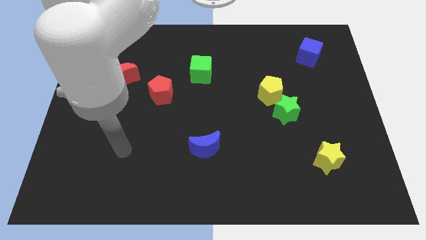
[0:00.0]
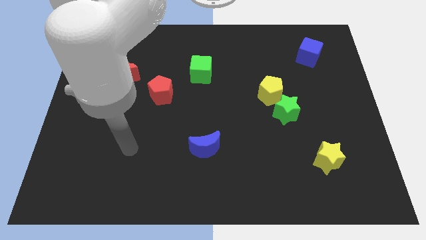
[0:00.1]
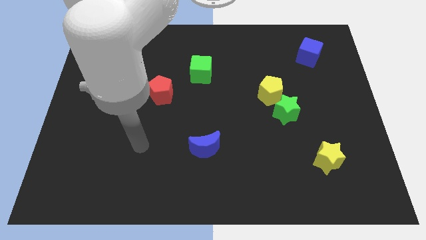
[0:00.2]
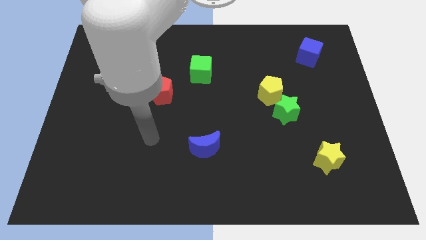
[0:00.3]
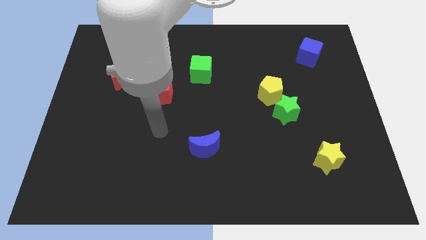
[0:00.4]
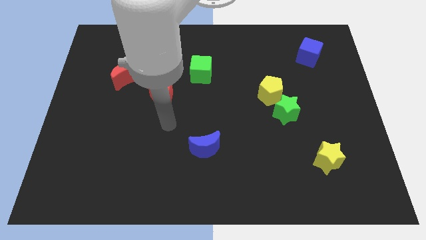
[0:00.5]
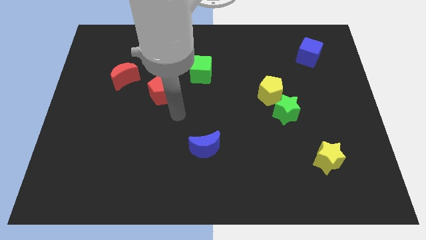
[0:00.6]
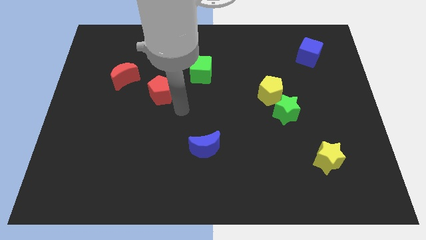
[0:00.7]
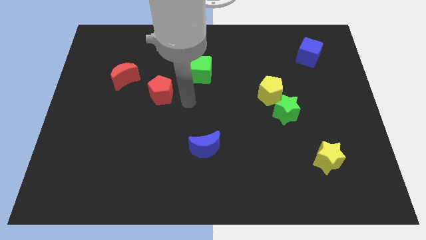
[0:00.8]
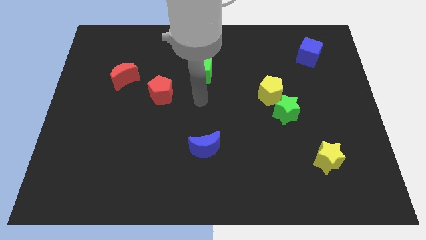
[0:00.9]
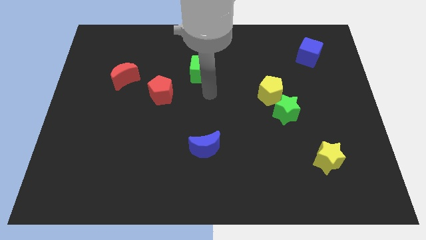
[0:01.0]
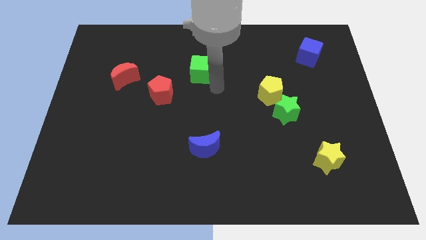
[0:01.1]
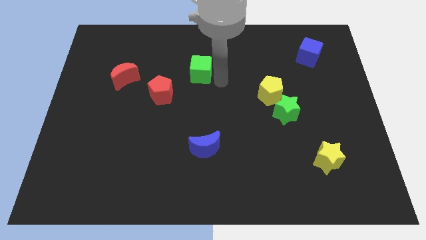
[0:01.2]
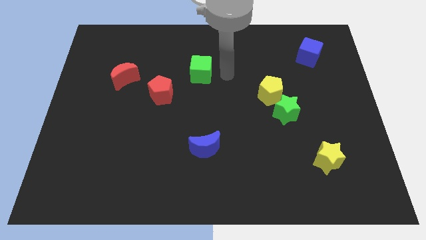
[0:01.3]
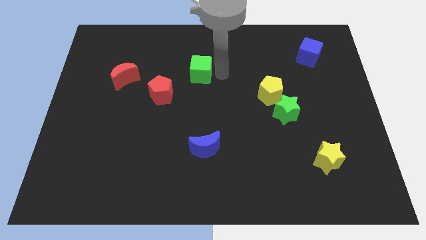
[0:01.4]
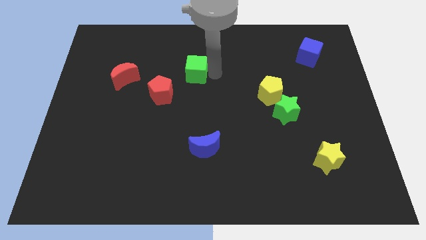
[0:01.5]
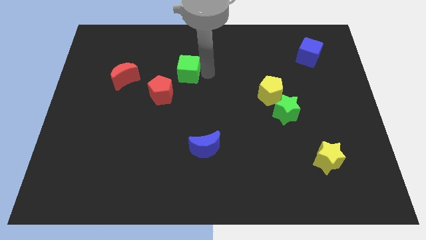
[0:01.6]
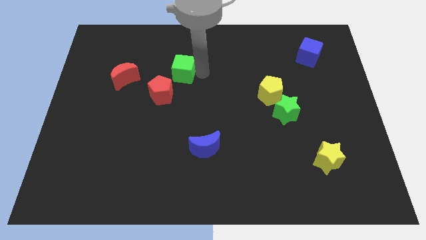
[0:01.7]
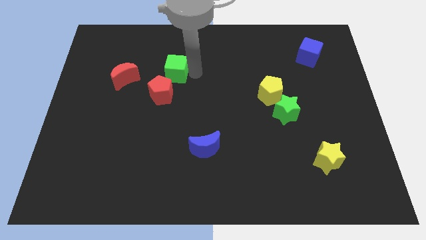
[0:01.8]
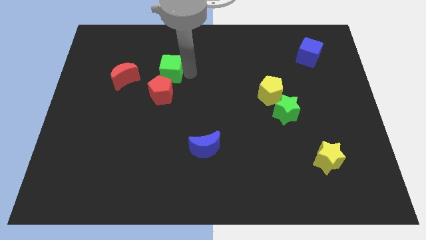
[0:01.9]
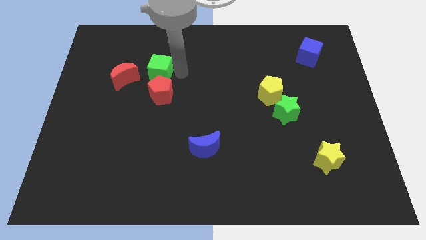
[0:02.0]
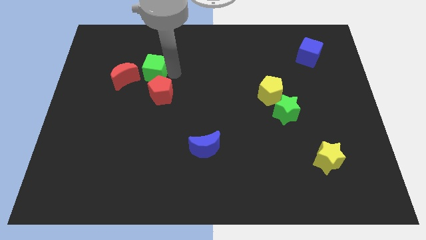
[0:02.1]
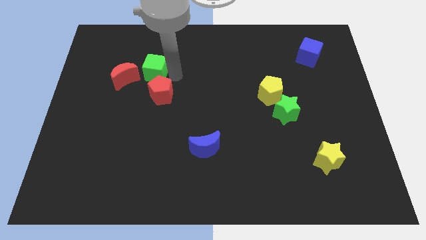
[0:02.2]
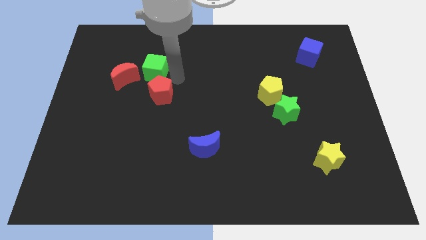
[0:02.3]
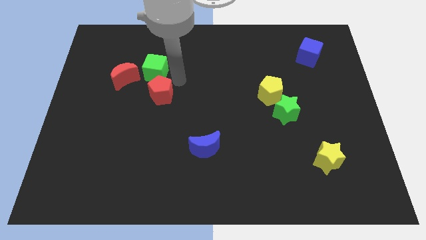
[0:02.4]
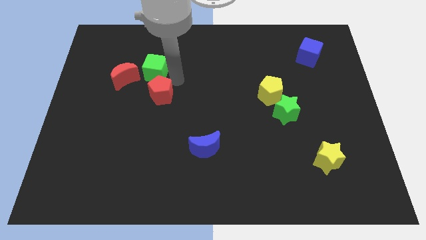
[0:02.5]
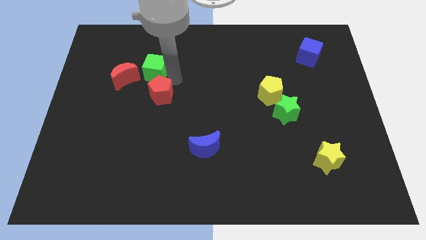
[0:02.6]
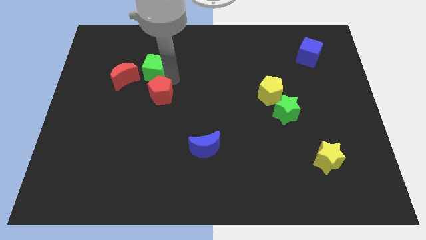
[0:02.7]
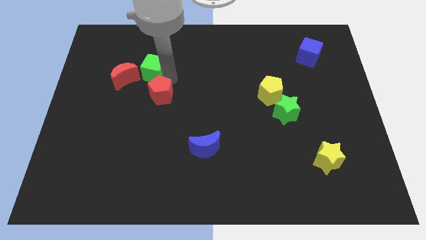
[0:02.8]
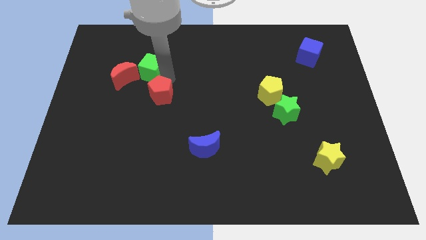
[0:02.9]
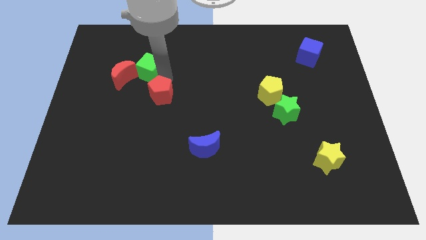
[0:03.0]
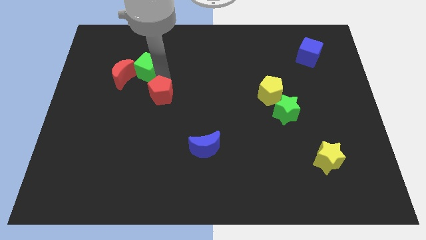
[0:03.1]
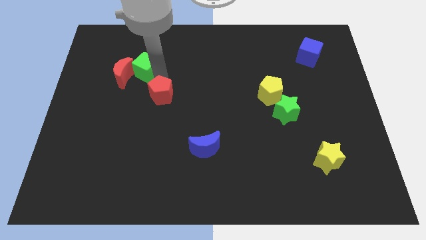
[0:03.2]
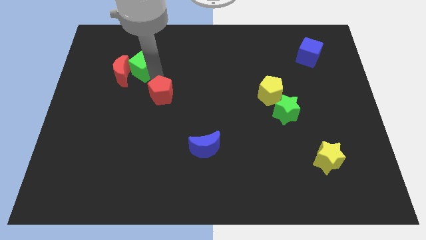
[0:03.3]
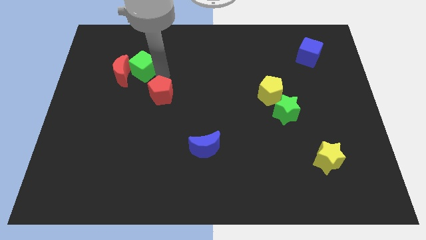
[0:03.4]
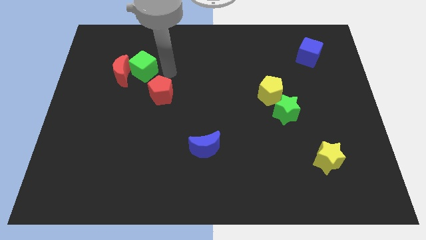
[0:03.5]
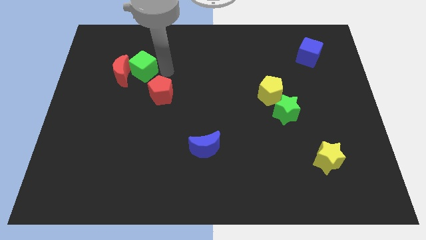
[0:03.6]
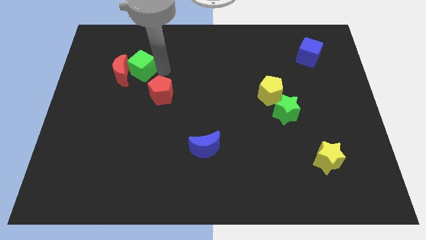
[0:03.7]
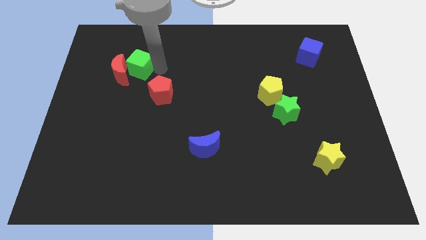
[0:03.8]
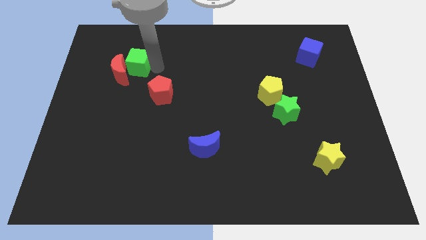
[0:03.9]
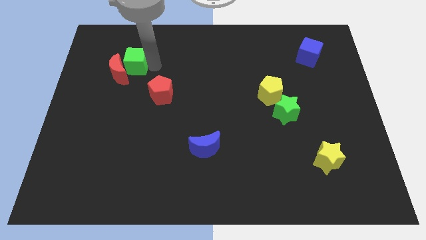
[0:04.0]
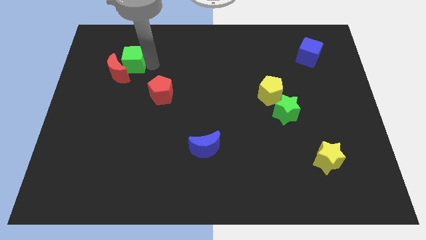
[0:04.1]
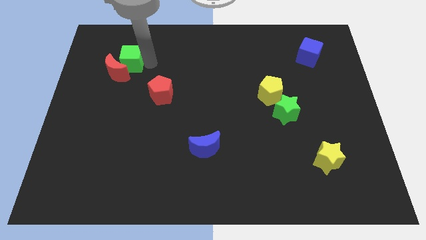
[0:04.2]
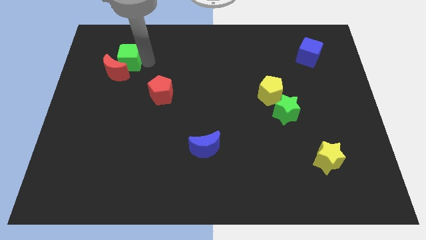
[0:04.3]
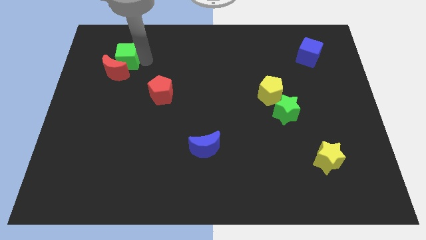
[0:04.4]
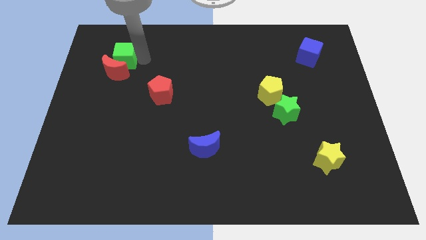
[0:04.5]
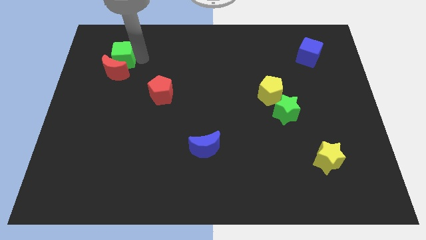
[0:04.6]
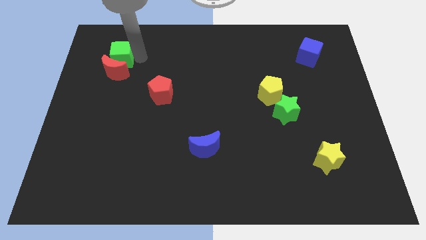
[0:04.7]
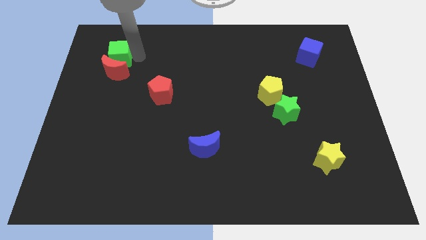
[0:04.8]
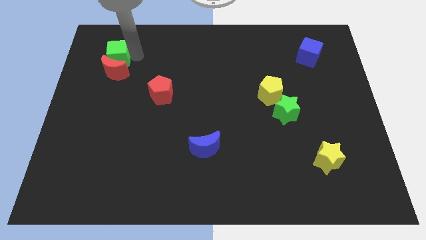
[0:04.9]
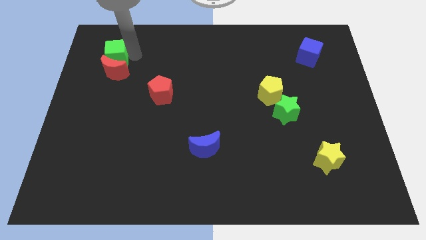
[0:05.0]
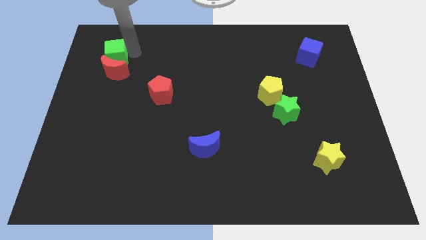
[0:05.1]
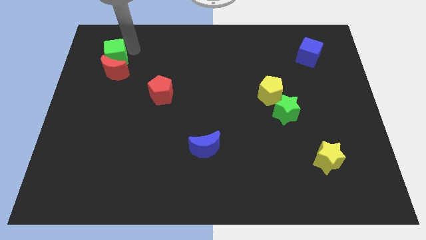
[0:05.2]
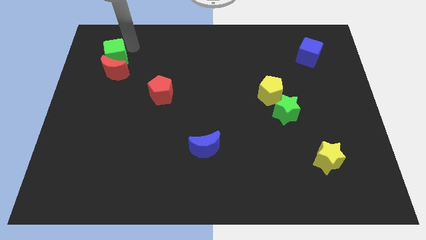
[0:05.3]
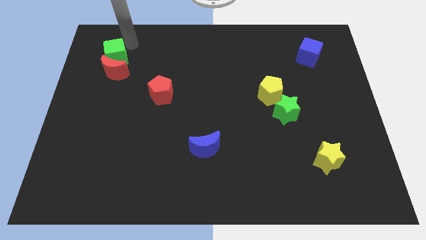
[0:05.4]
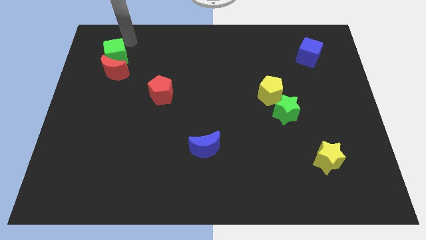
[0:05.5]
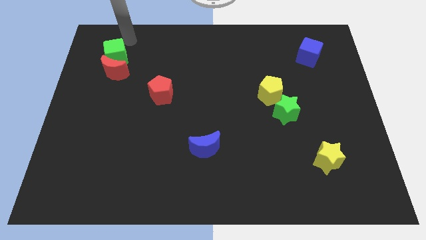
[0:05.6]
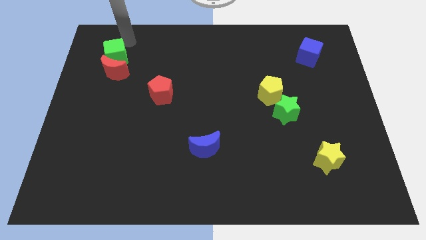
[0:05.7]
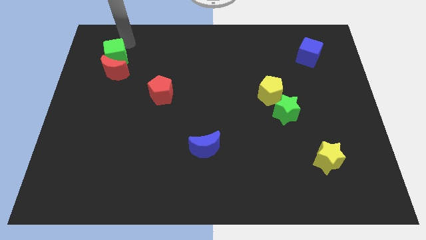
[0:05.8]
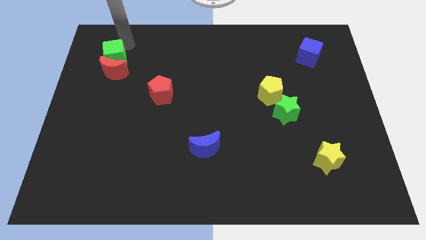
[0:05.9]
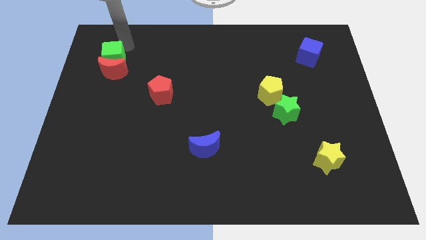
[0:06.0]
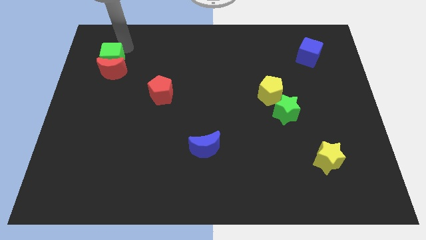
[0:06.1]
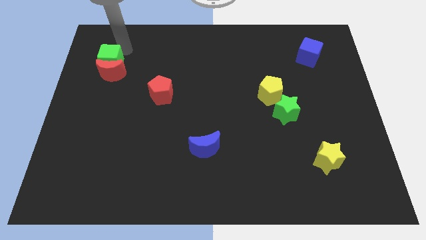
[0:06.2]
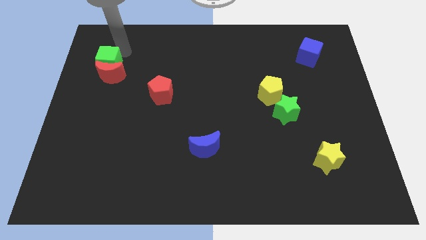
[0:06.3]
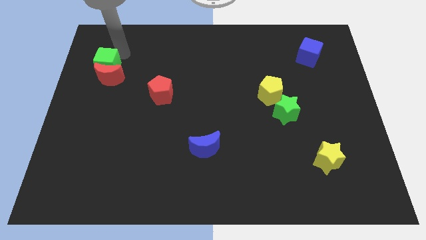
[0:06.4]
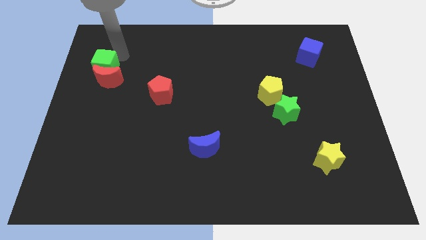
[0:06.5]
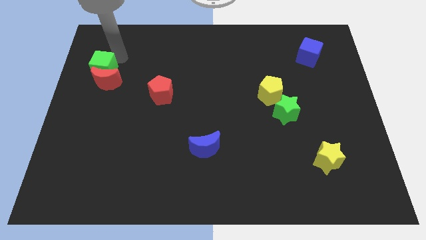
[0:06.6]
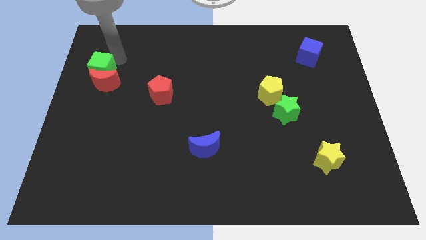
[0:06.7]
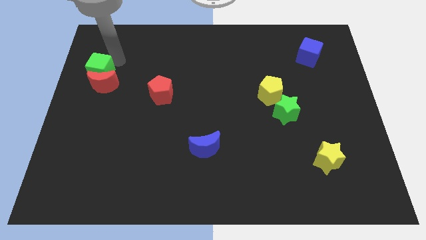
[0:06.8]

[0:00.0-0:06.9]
move the green cube to the center left
